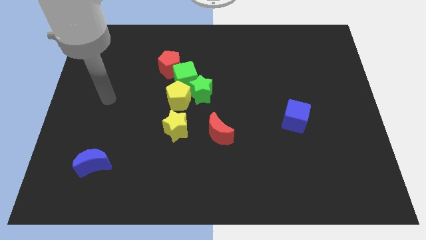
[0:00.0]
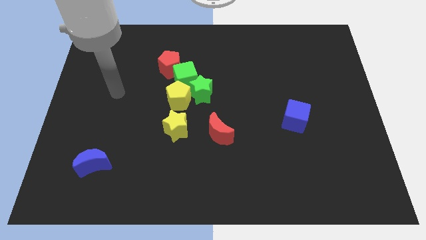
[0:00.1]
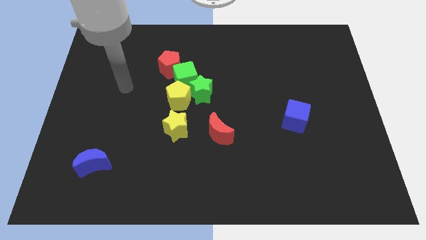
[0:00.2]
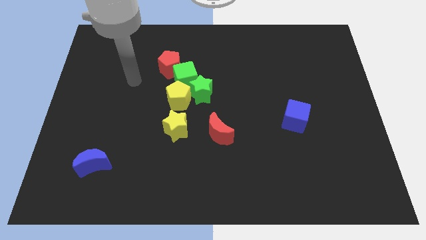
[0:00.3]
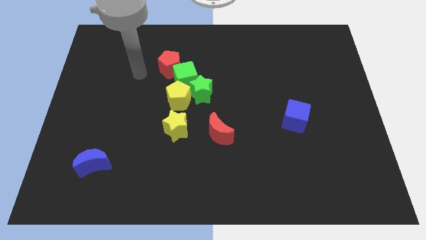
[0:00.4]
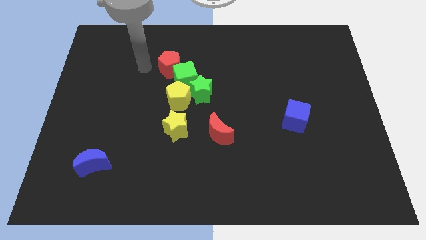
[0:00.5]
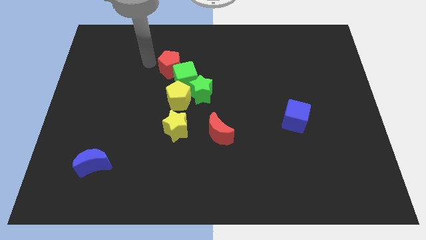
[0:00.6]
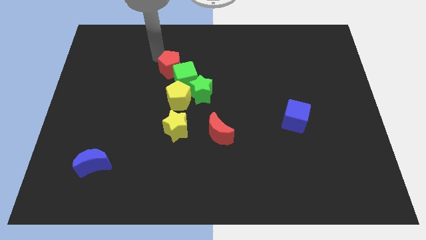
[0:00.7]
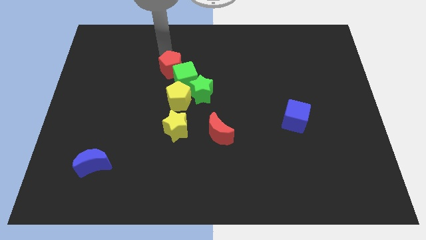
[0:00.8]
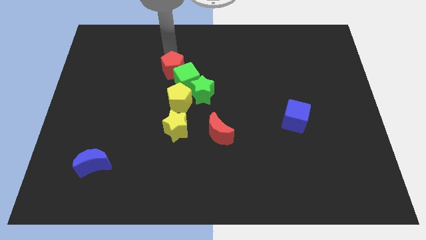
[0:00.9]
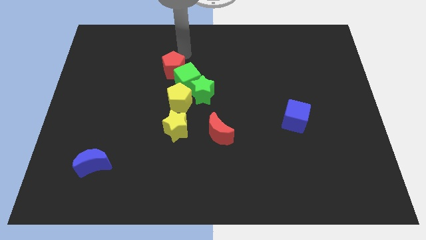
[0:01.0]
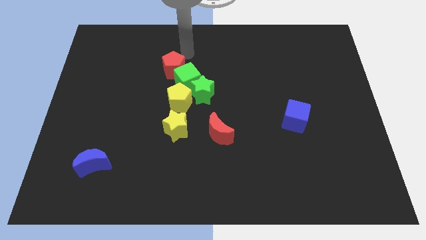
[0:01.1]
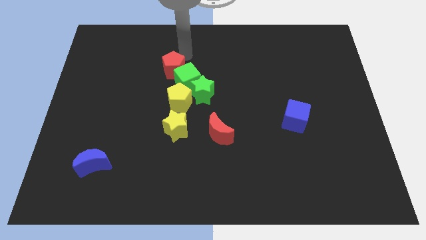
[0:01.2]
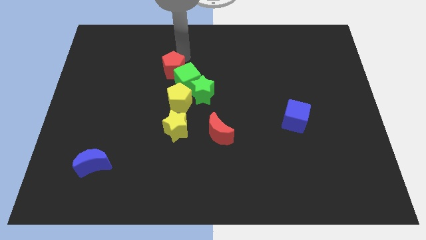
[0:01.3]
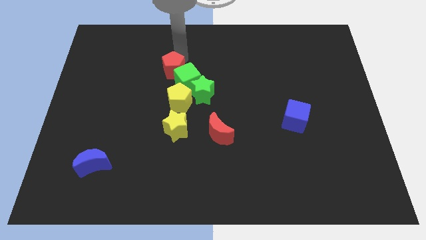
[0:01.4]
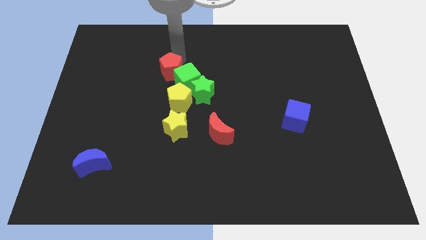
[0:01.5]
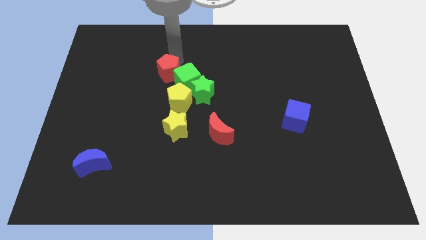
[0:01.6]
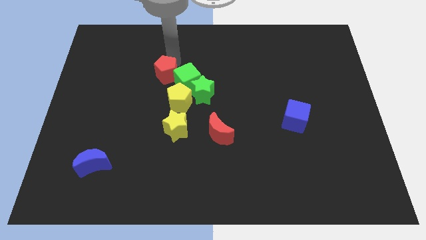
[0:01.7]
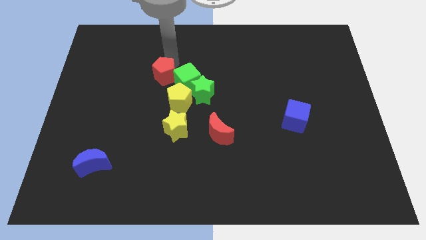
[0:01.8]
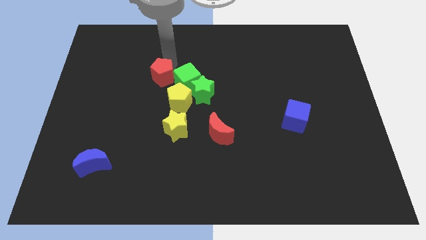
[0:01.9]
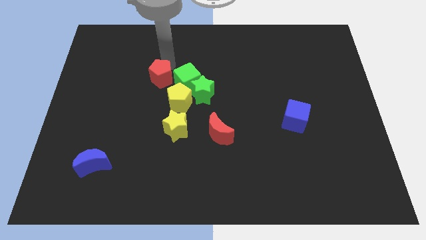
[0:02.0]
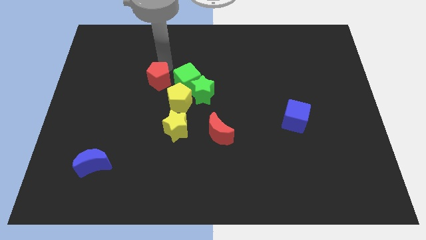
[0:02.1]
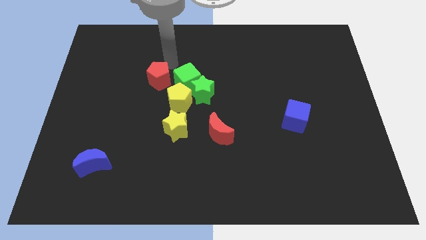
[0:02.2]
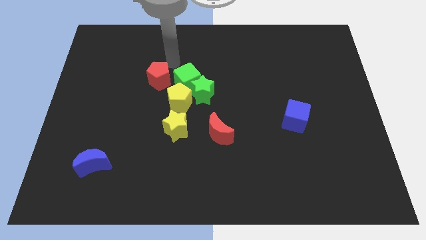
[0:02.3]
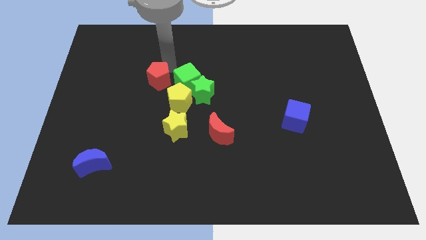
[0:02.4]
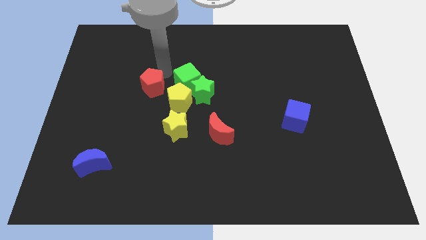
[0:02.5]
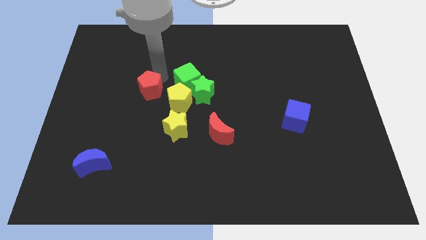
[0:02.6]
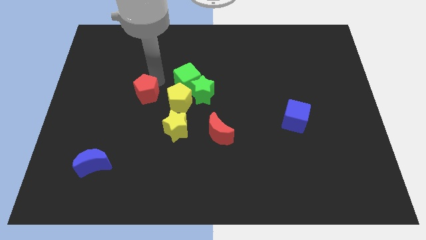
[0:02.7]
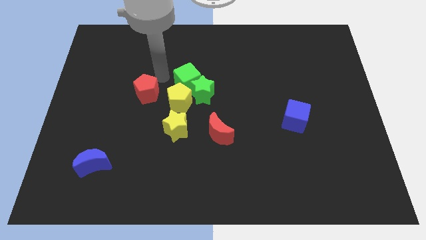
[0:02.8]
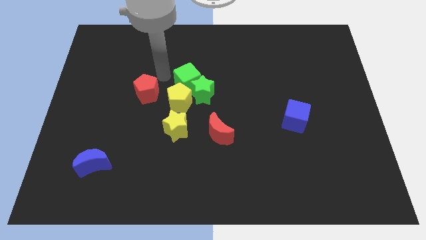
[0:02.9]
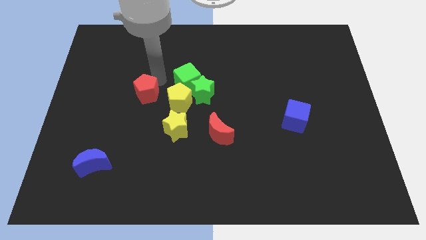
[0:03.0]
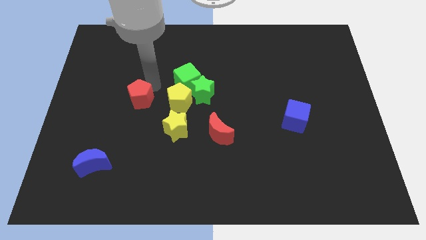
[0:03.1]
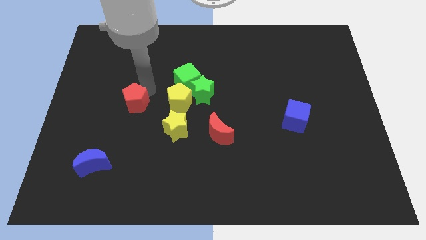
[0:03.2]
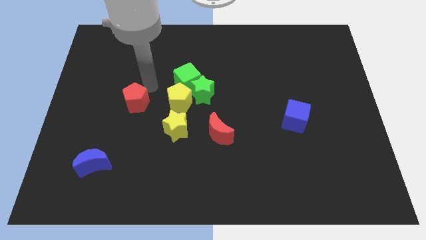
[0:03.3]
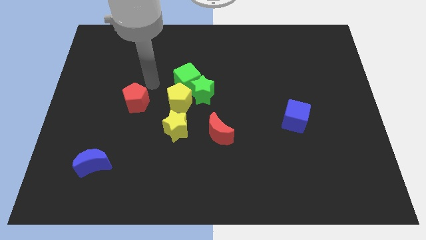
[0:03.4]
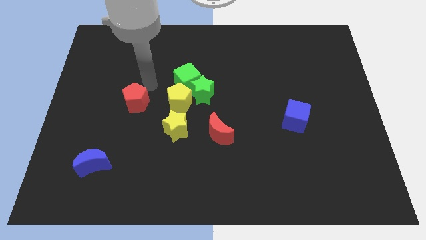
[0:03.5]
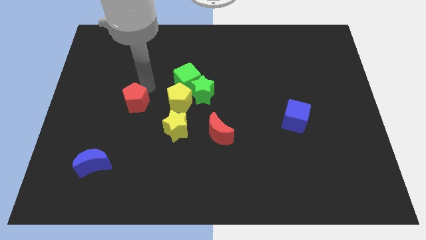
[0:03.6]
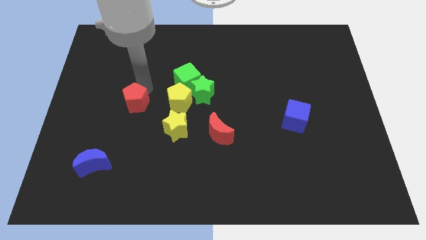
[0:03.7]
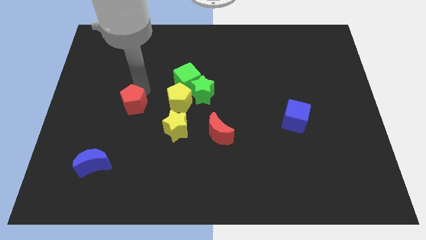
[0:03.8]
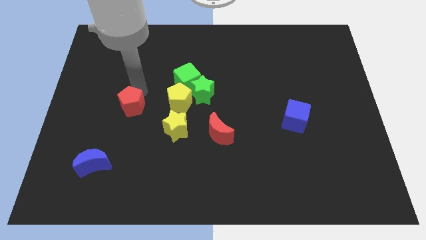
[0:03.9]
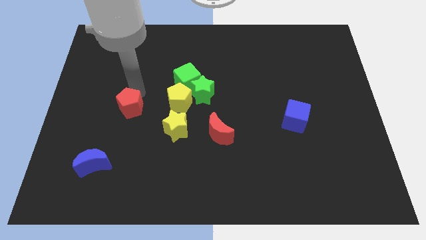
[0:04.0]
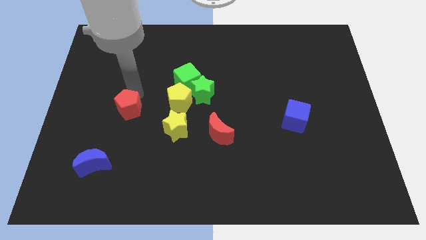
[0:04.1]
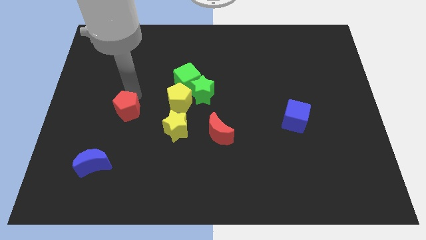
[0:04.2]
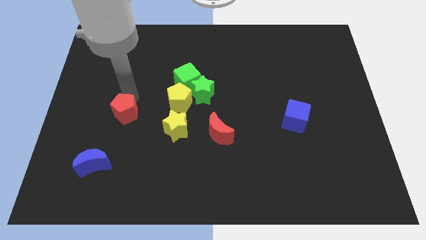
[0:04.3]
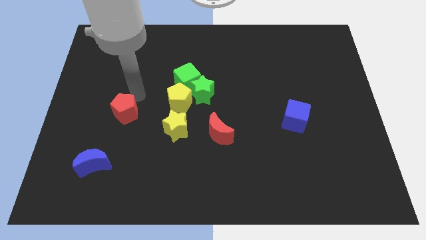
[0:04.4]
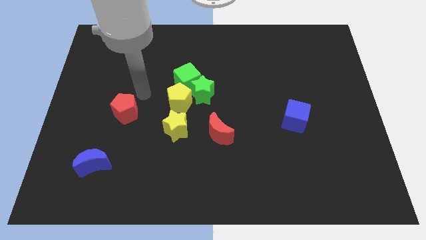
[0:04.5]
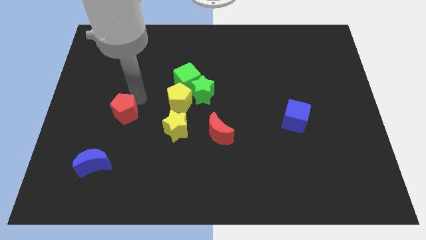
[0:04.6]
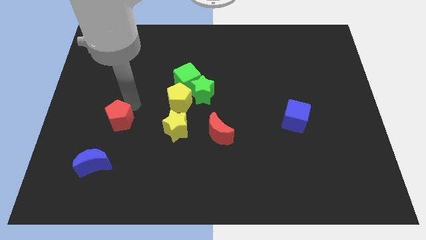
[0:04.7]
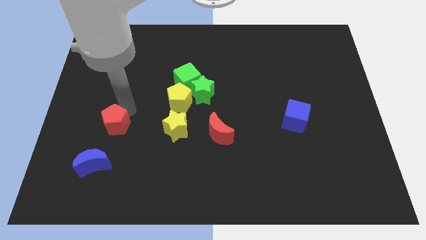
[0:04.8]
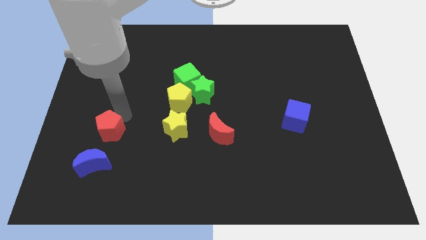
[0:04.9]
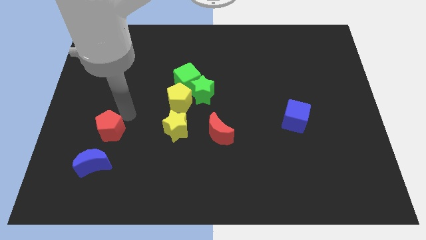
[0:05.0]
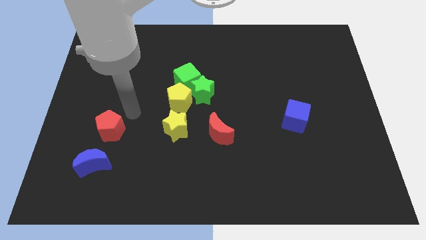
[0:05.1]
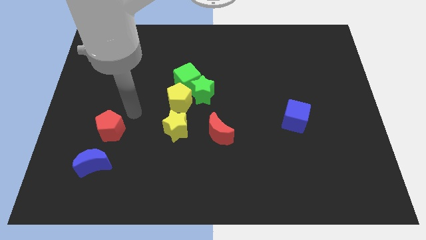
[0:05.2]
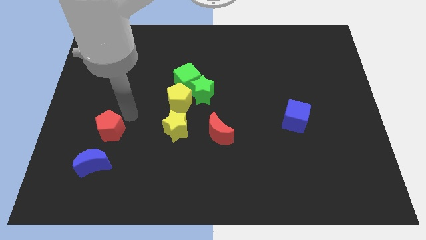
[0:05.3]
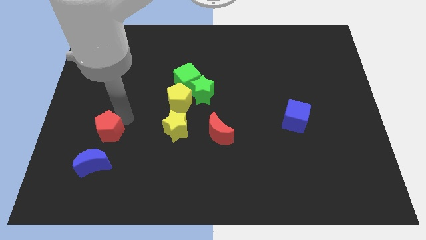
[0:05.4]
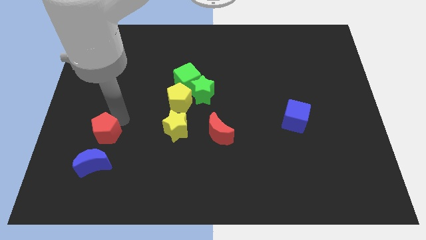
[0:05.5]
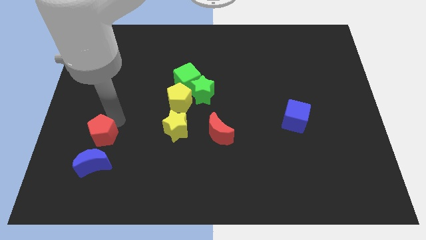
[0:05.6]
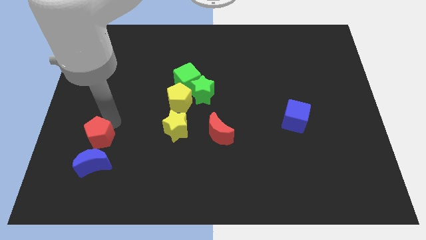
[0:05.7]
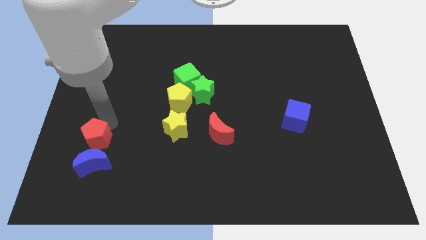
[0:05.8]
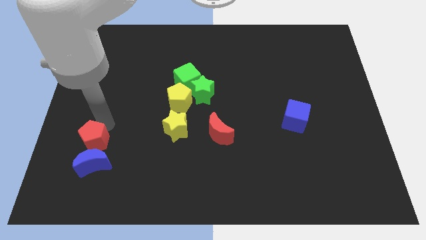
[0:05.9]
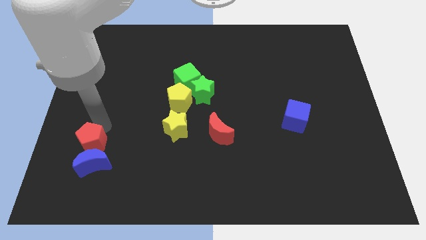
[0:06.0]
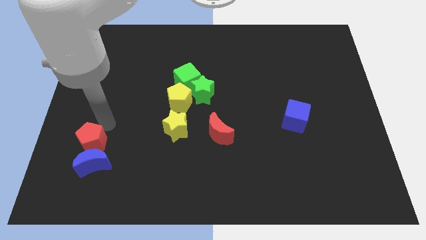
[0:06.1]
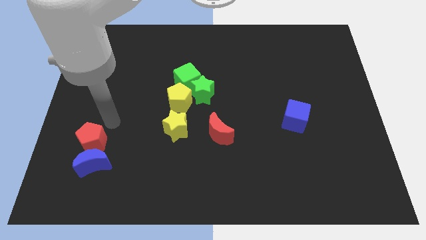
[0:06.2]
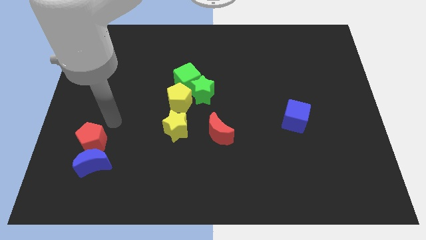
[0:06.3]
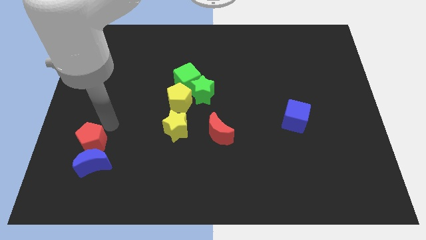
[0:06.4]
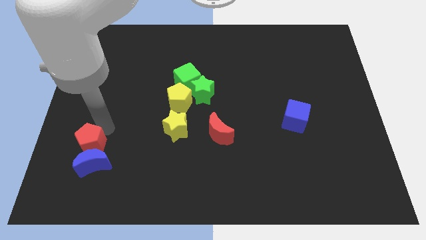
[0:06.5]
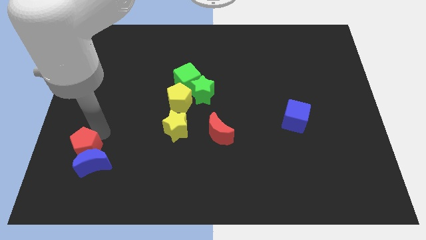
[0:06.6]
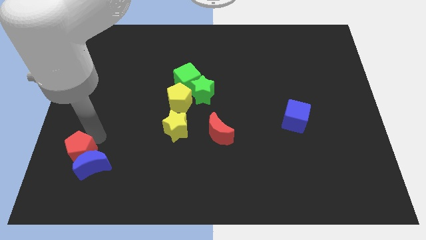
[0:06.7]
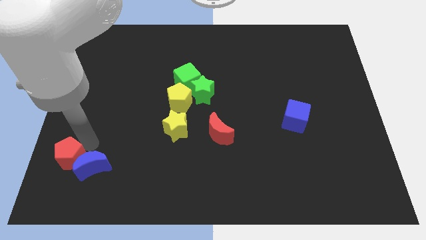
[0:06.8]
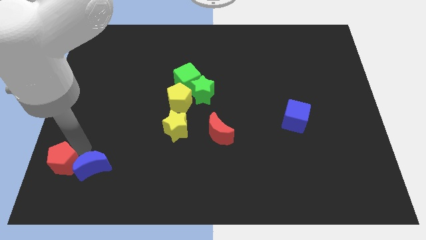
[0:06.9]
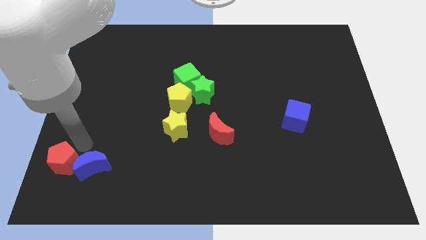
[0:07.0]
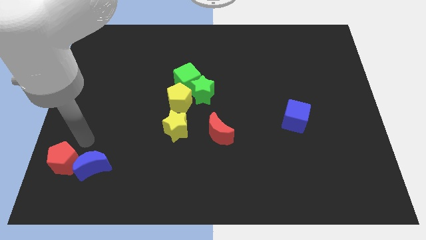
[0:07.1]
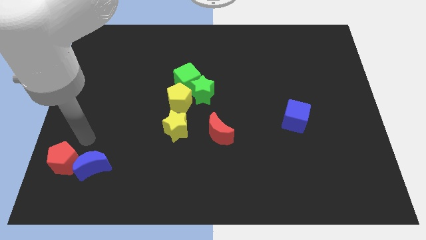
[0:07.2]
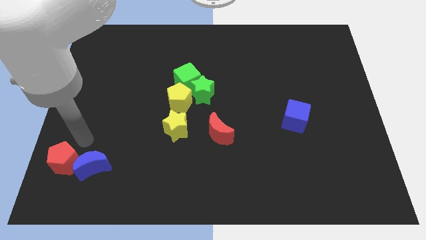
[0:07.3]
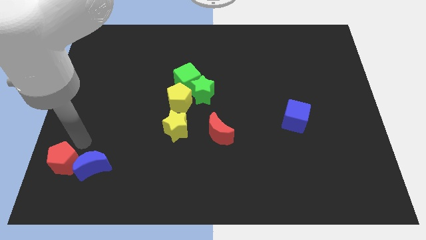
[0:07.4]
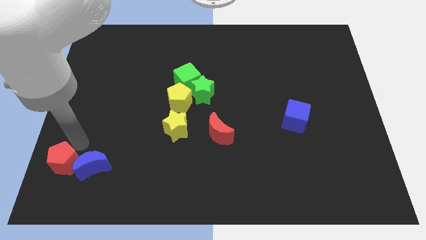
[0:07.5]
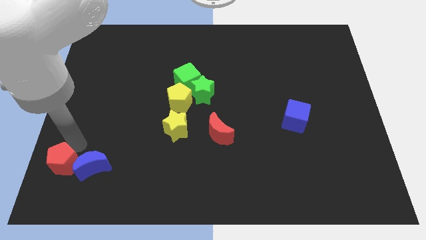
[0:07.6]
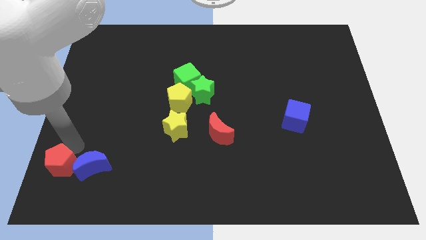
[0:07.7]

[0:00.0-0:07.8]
slide the red pentagon to the bottom left corner
